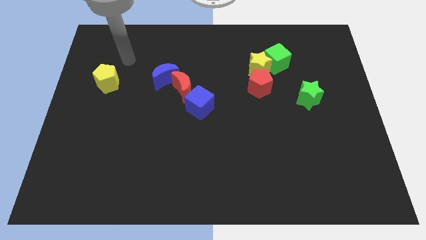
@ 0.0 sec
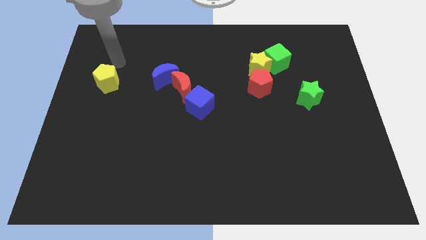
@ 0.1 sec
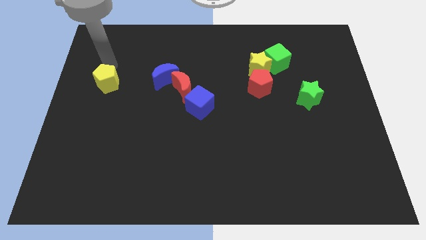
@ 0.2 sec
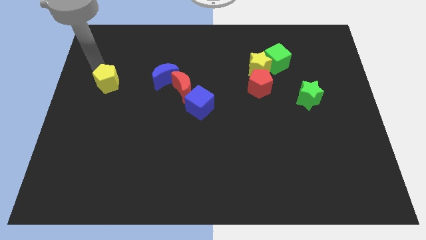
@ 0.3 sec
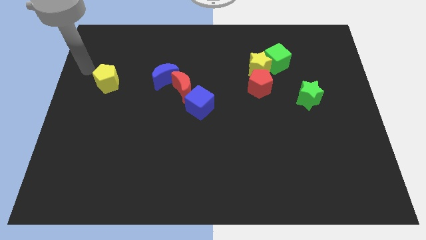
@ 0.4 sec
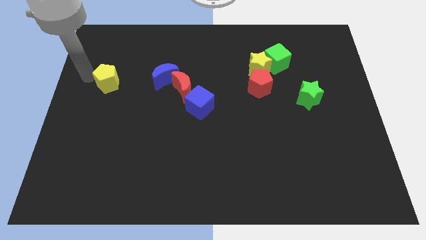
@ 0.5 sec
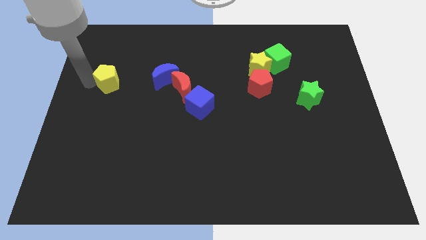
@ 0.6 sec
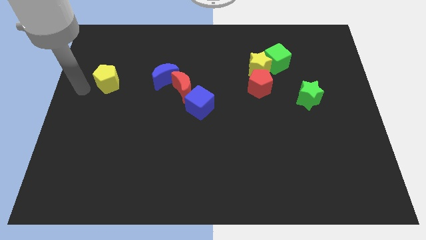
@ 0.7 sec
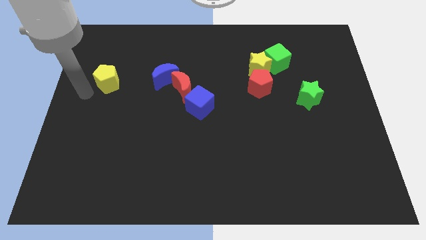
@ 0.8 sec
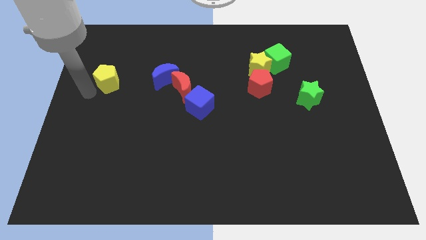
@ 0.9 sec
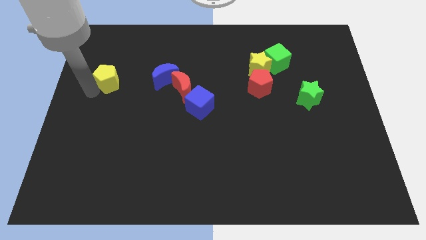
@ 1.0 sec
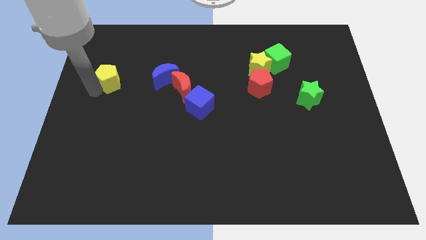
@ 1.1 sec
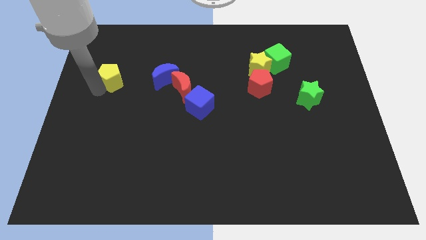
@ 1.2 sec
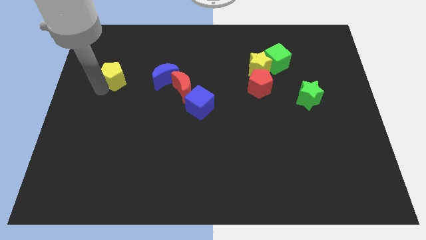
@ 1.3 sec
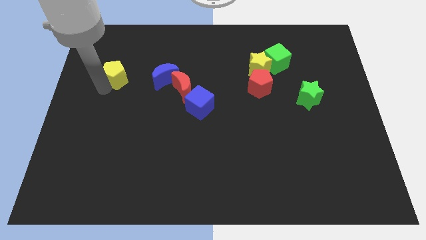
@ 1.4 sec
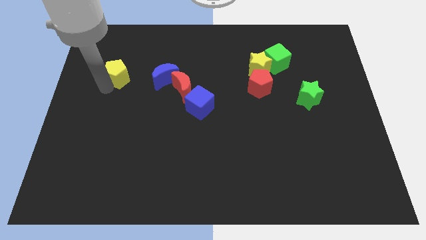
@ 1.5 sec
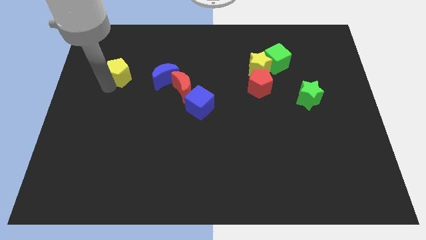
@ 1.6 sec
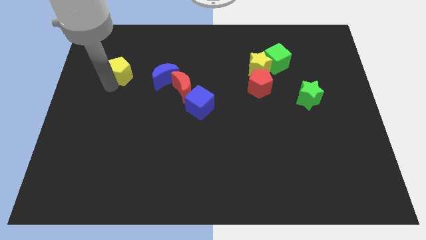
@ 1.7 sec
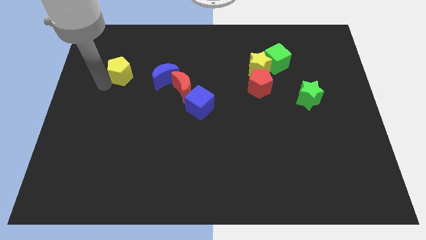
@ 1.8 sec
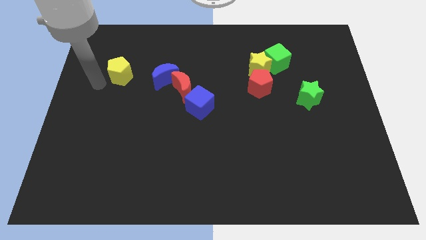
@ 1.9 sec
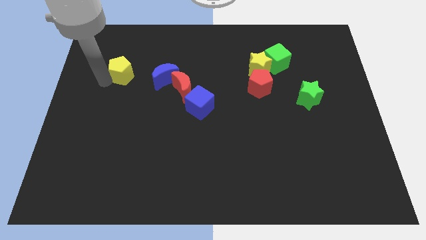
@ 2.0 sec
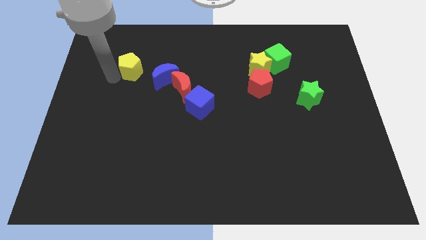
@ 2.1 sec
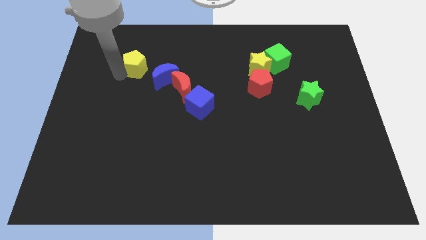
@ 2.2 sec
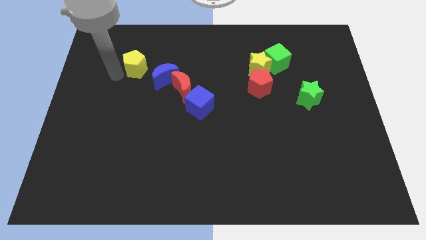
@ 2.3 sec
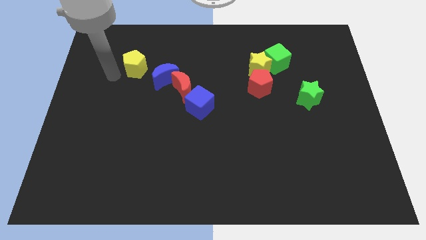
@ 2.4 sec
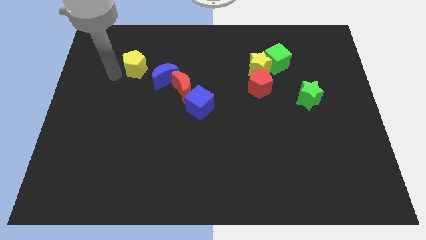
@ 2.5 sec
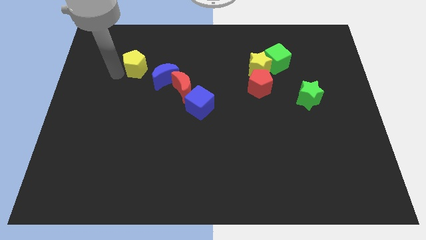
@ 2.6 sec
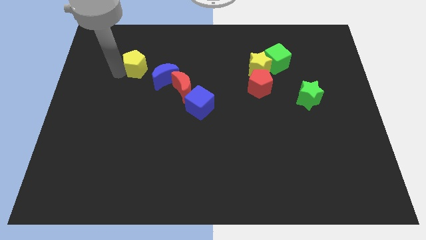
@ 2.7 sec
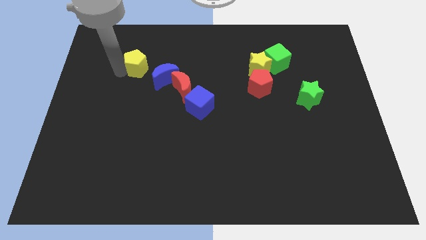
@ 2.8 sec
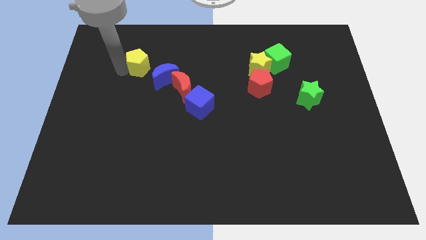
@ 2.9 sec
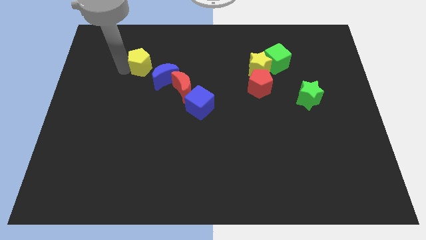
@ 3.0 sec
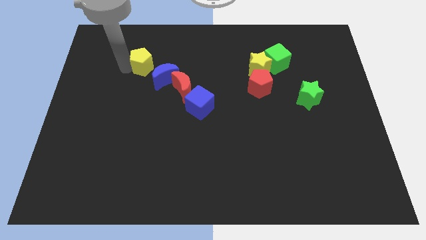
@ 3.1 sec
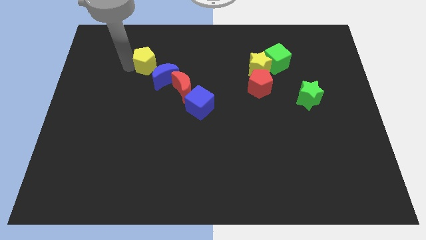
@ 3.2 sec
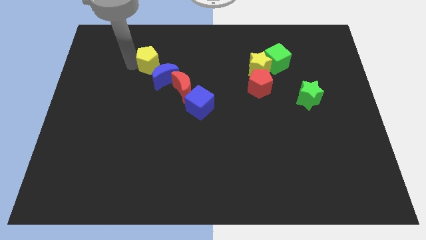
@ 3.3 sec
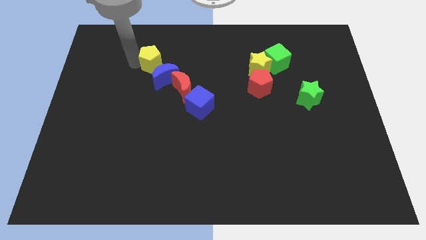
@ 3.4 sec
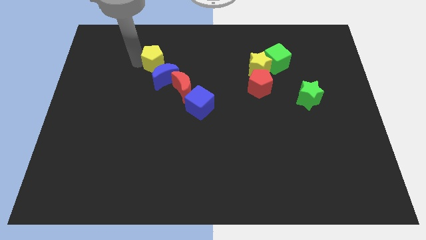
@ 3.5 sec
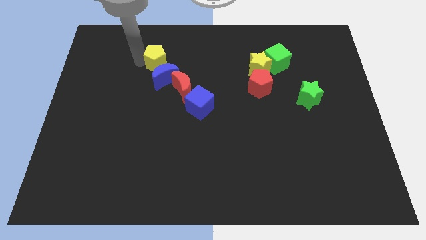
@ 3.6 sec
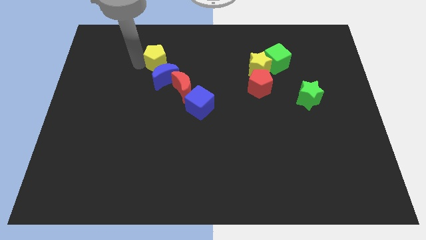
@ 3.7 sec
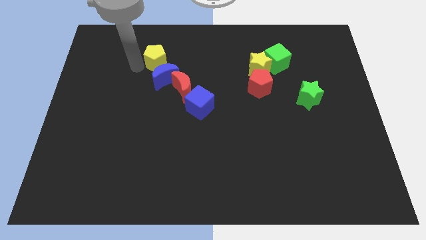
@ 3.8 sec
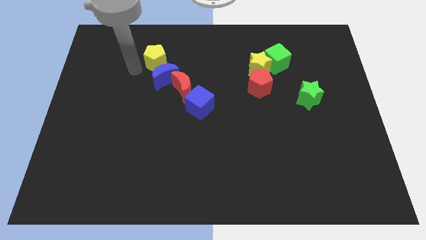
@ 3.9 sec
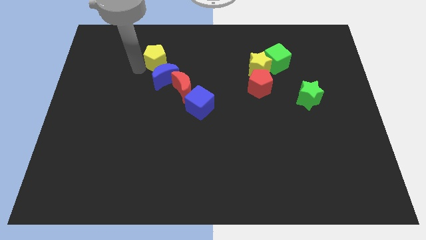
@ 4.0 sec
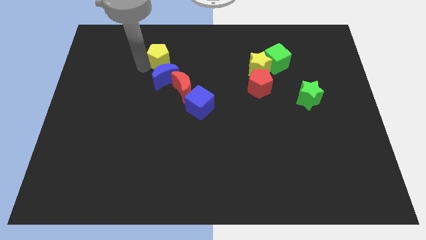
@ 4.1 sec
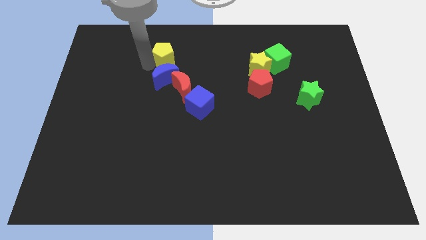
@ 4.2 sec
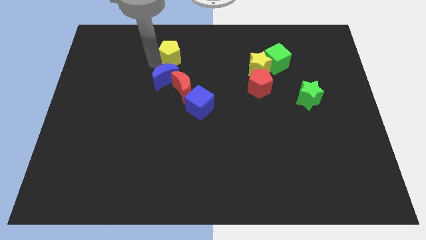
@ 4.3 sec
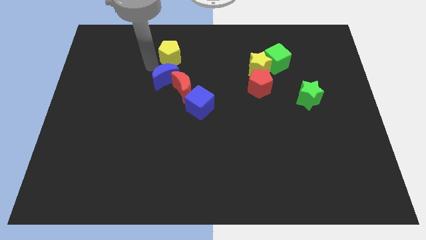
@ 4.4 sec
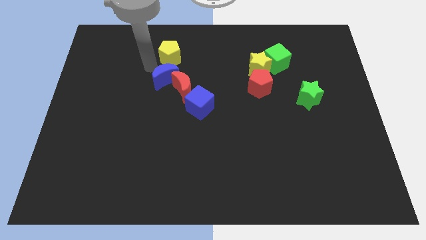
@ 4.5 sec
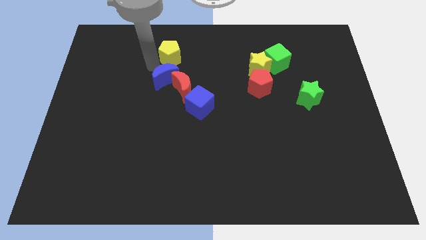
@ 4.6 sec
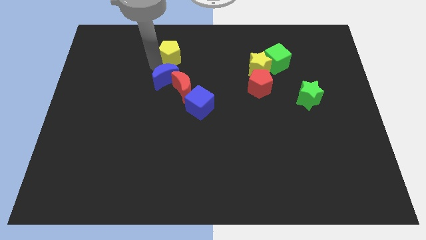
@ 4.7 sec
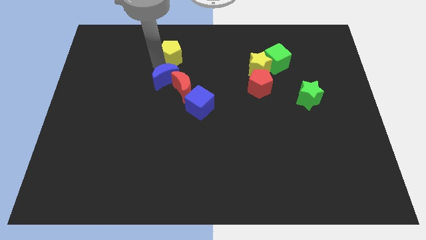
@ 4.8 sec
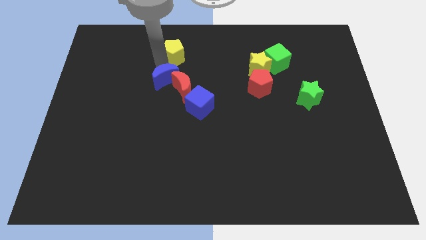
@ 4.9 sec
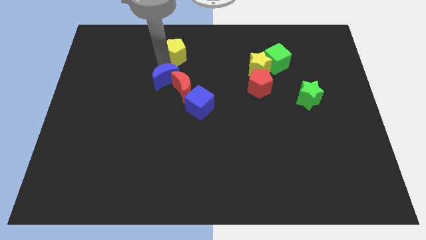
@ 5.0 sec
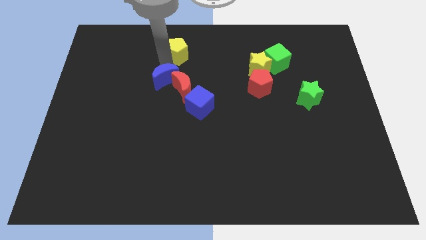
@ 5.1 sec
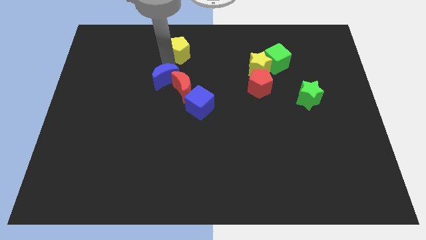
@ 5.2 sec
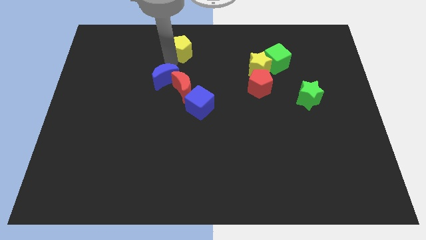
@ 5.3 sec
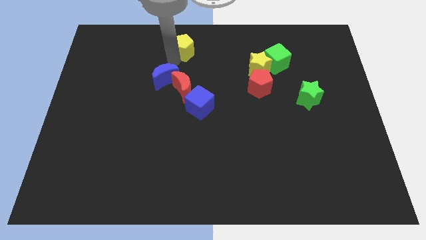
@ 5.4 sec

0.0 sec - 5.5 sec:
slide the yellow pentagon to the top side

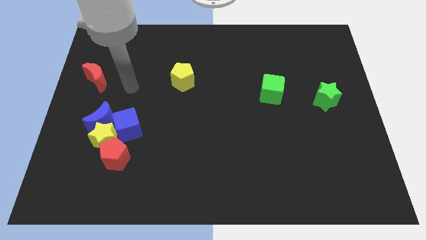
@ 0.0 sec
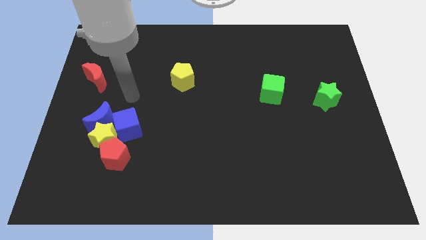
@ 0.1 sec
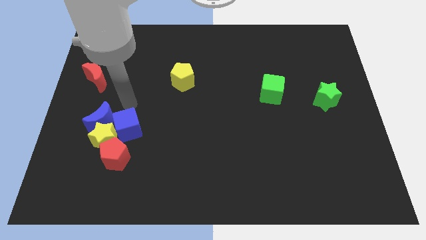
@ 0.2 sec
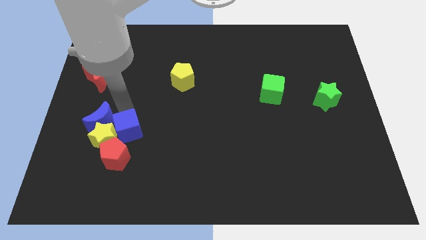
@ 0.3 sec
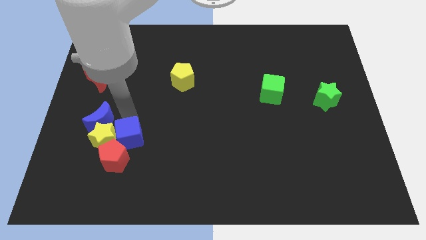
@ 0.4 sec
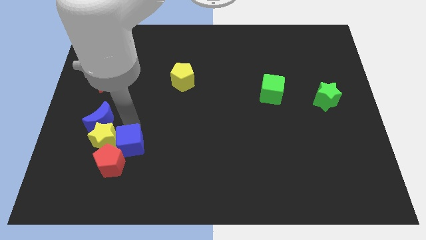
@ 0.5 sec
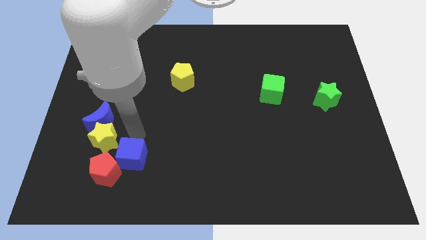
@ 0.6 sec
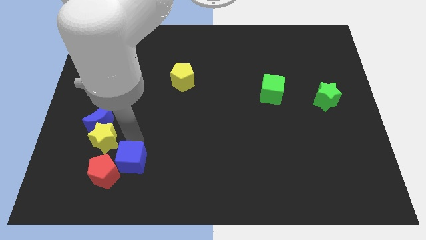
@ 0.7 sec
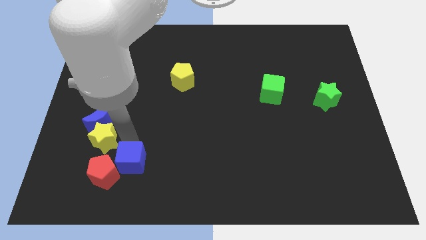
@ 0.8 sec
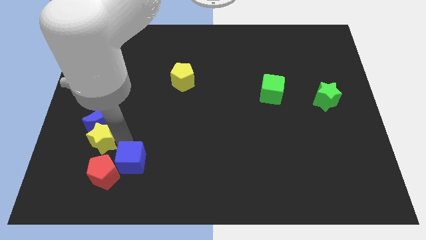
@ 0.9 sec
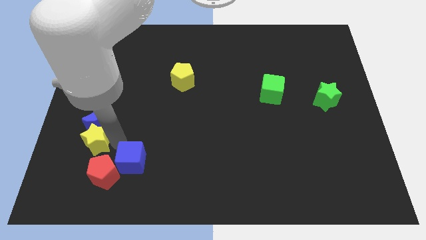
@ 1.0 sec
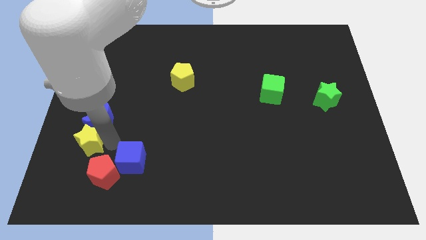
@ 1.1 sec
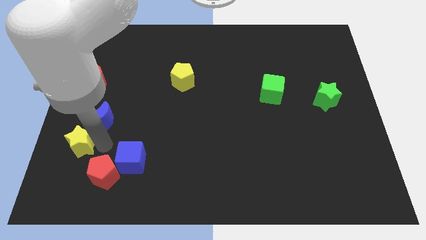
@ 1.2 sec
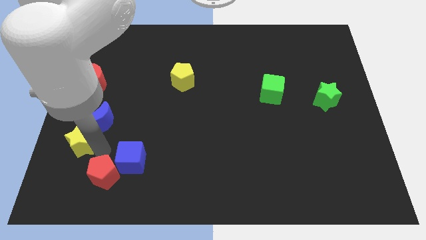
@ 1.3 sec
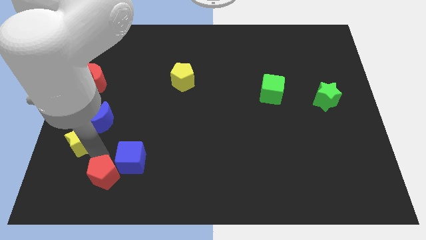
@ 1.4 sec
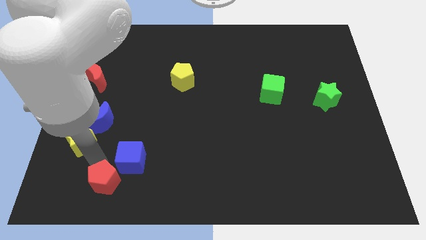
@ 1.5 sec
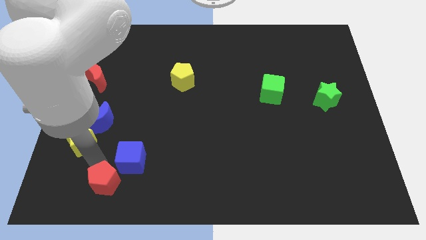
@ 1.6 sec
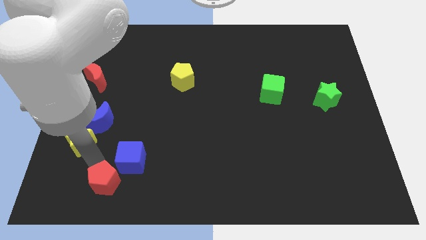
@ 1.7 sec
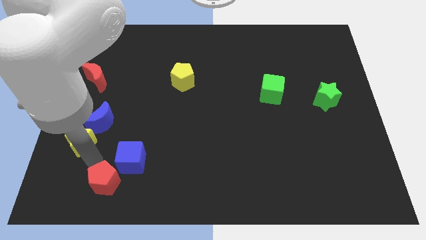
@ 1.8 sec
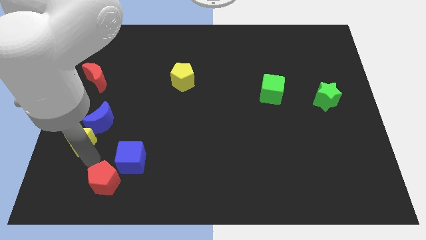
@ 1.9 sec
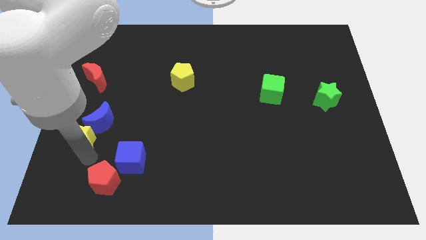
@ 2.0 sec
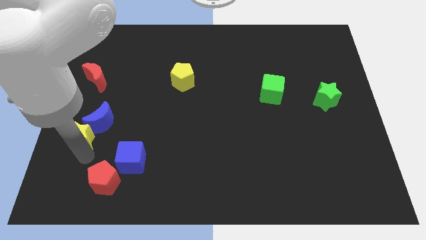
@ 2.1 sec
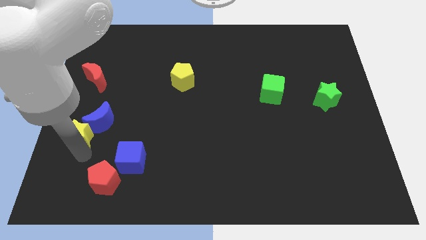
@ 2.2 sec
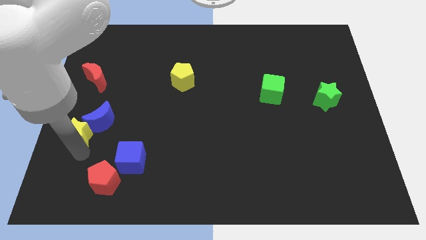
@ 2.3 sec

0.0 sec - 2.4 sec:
put the yellow star to the center left
